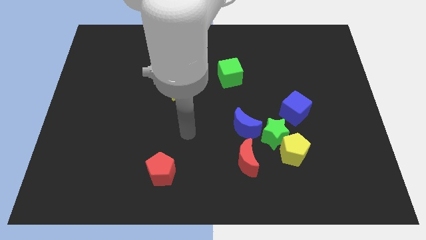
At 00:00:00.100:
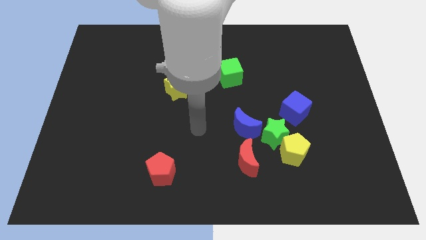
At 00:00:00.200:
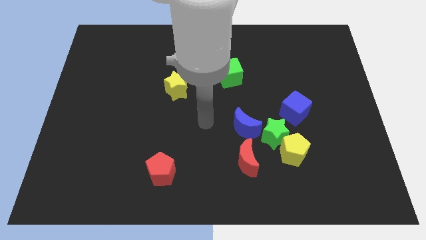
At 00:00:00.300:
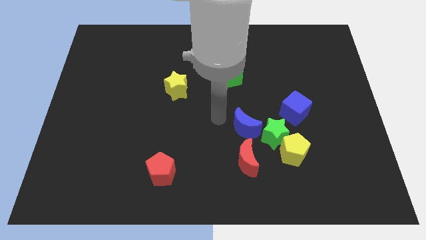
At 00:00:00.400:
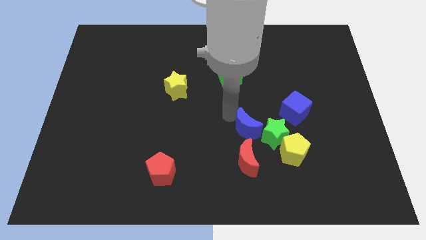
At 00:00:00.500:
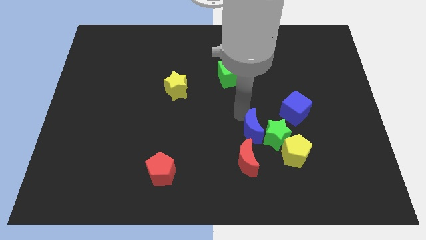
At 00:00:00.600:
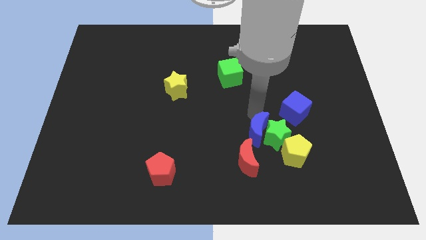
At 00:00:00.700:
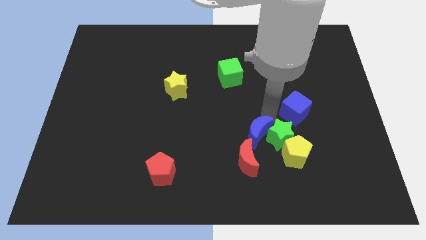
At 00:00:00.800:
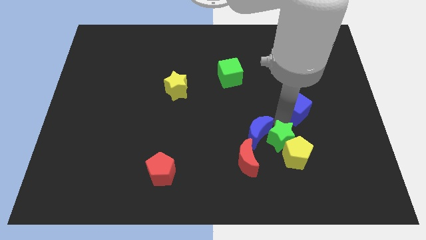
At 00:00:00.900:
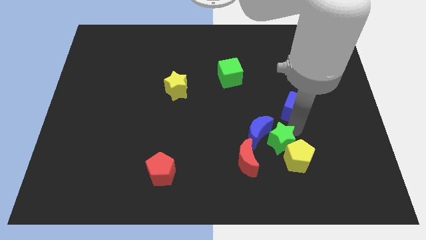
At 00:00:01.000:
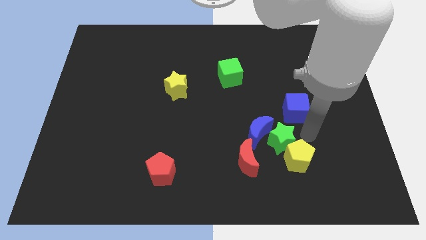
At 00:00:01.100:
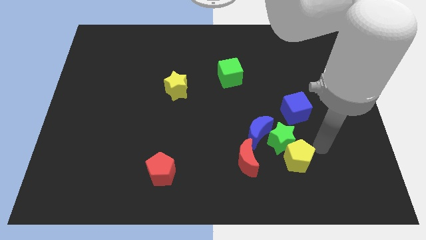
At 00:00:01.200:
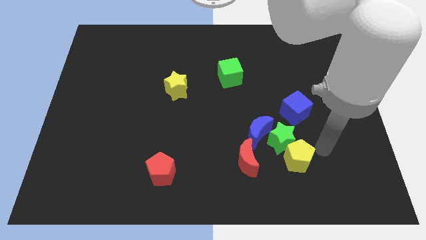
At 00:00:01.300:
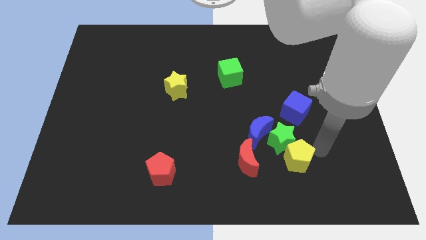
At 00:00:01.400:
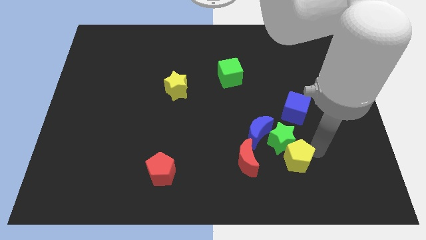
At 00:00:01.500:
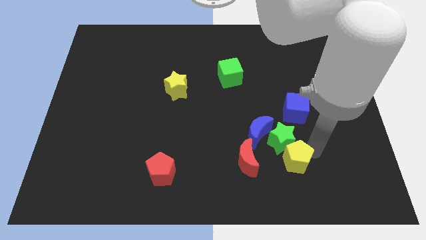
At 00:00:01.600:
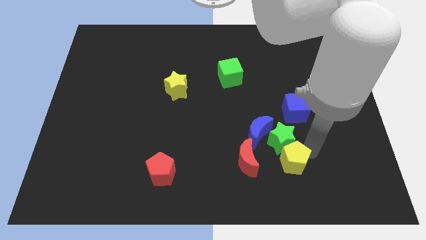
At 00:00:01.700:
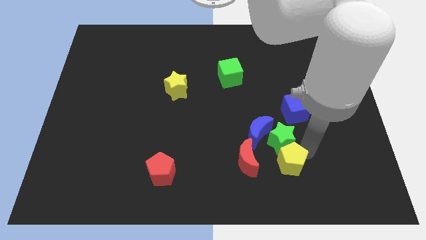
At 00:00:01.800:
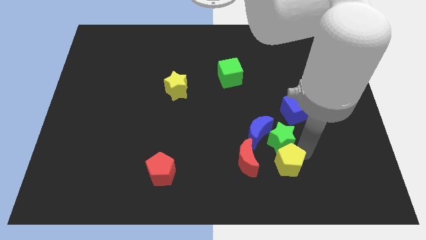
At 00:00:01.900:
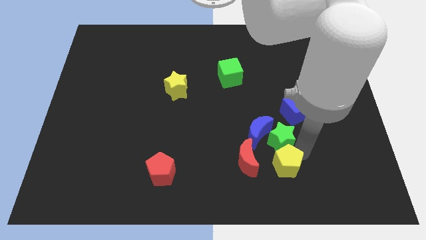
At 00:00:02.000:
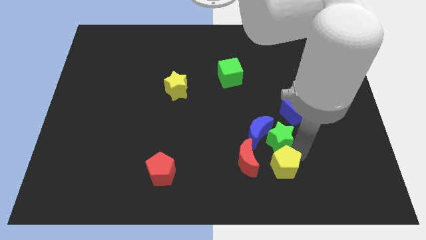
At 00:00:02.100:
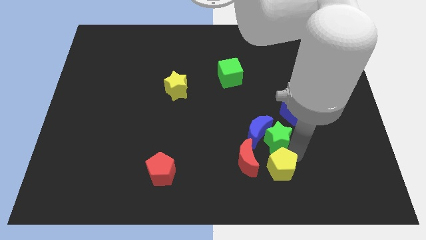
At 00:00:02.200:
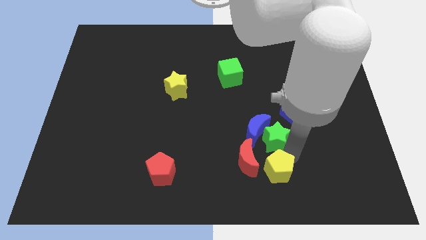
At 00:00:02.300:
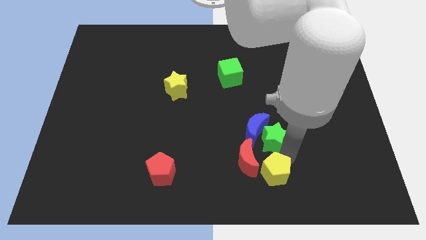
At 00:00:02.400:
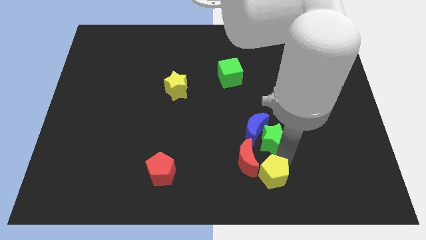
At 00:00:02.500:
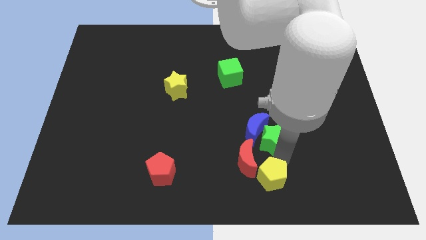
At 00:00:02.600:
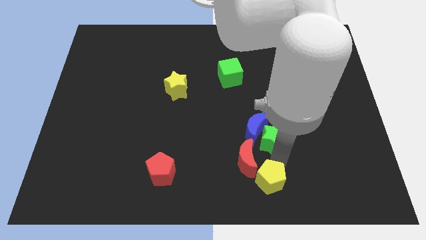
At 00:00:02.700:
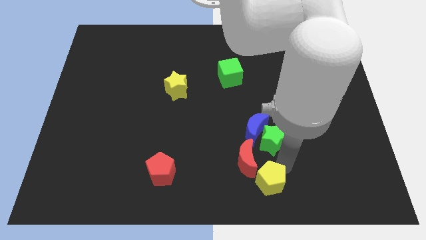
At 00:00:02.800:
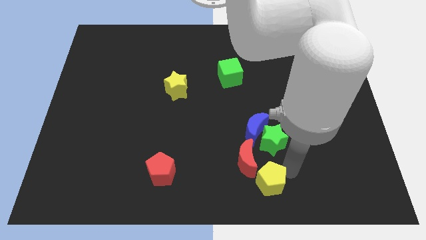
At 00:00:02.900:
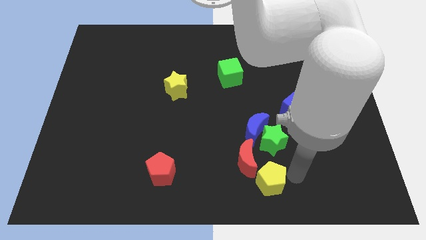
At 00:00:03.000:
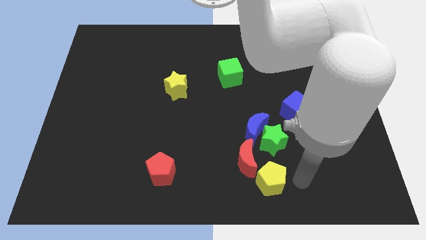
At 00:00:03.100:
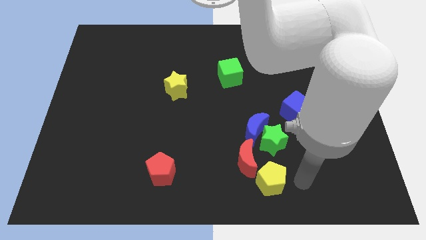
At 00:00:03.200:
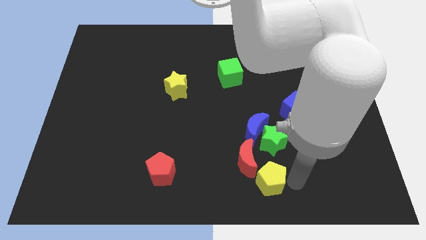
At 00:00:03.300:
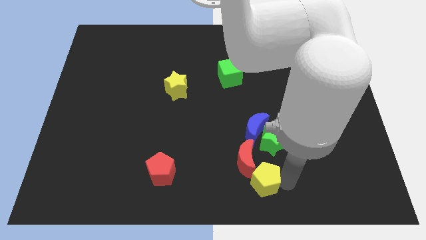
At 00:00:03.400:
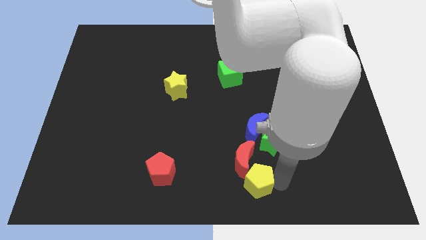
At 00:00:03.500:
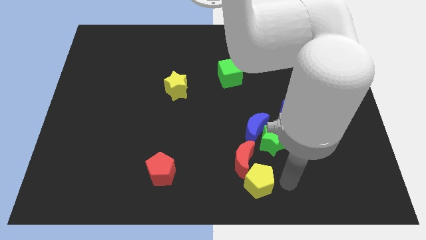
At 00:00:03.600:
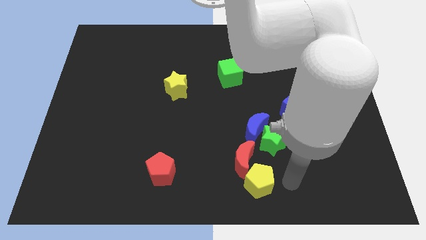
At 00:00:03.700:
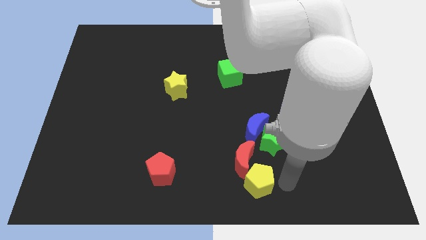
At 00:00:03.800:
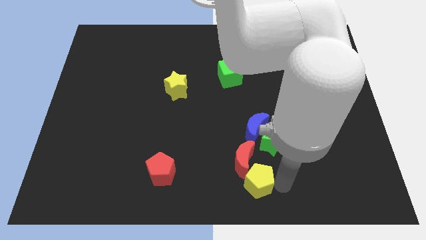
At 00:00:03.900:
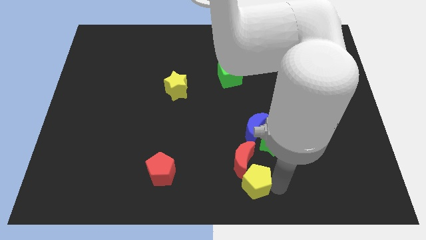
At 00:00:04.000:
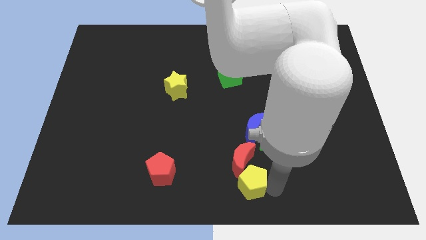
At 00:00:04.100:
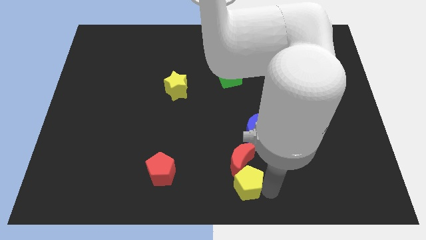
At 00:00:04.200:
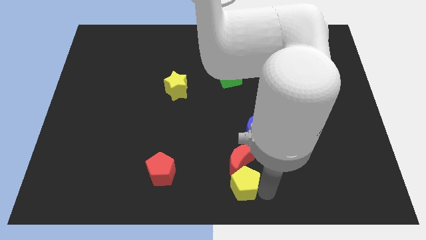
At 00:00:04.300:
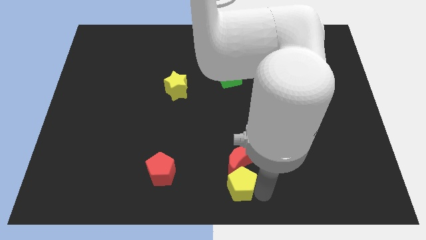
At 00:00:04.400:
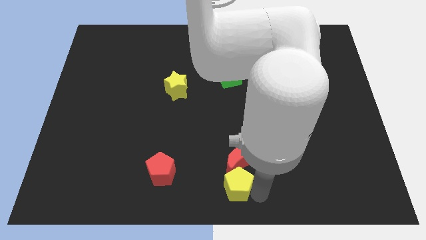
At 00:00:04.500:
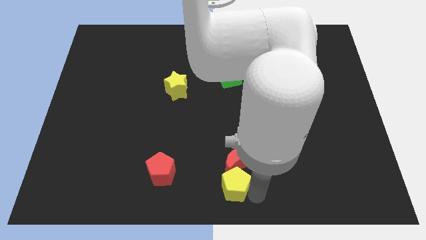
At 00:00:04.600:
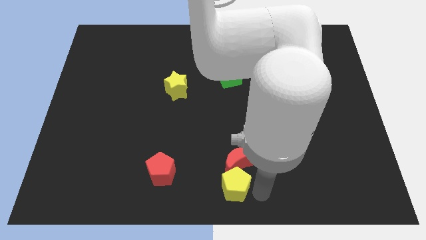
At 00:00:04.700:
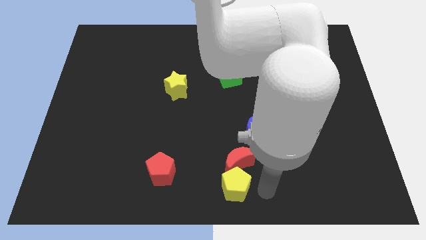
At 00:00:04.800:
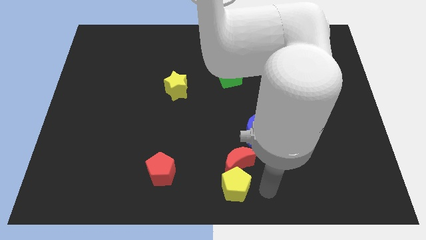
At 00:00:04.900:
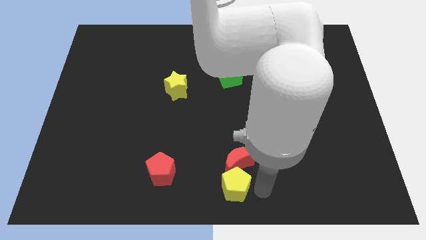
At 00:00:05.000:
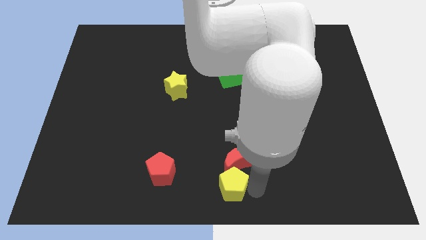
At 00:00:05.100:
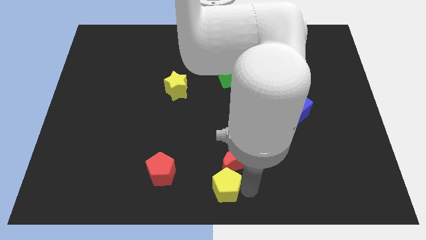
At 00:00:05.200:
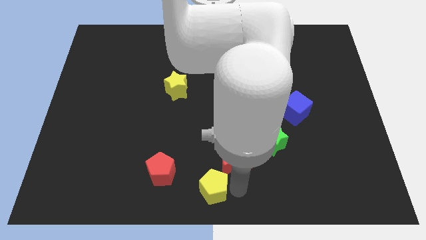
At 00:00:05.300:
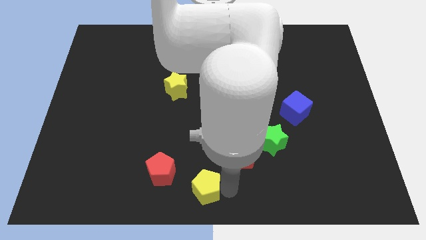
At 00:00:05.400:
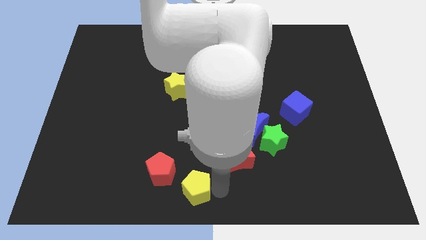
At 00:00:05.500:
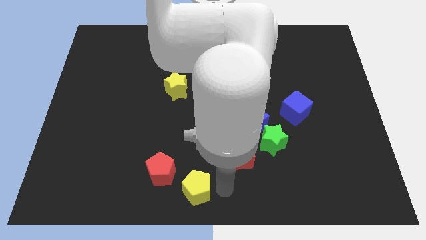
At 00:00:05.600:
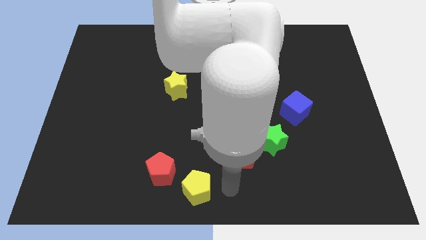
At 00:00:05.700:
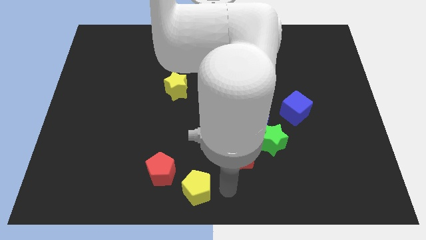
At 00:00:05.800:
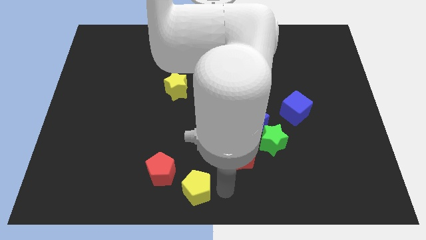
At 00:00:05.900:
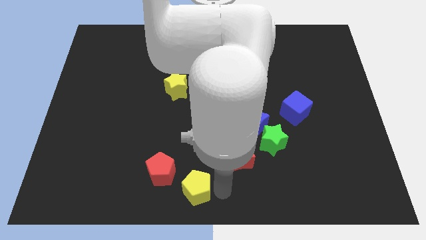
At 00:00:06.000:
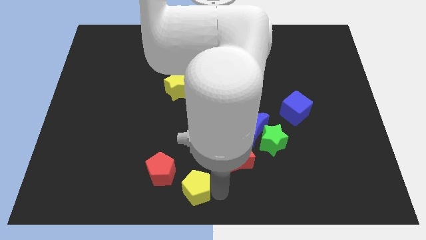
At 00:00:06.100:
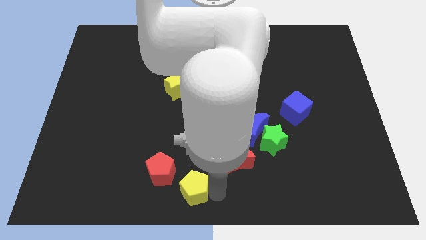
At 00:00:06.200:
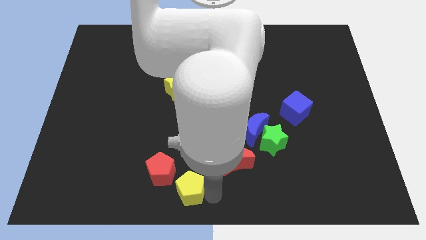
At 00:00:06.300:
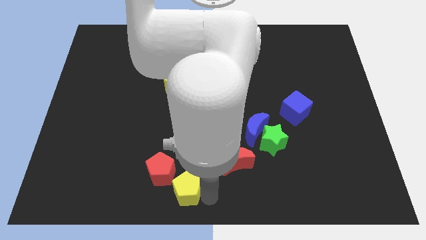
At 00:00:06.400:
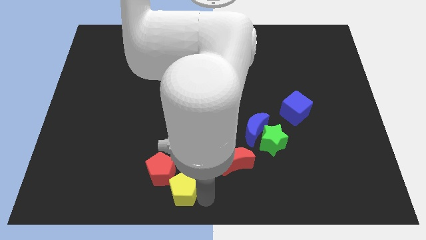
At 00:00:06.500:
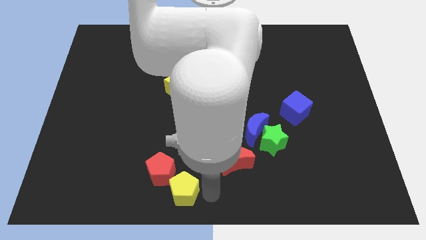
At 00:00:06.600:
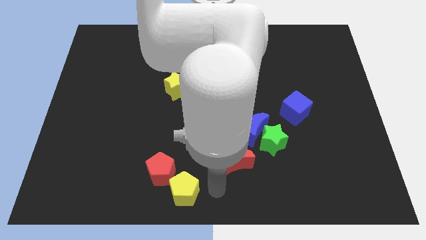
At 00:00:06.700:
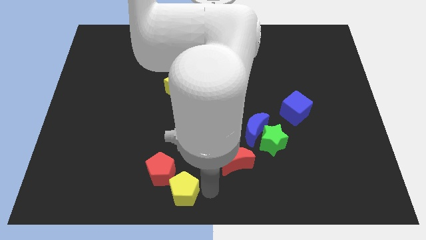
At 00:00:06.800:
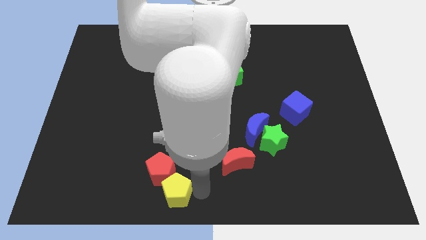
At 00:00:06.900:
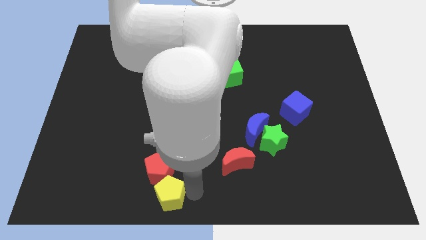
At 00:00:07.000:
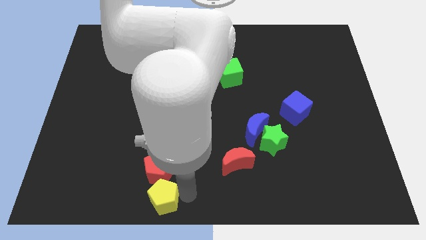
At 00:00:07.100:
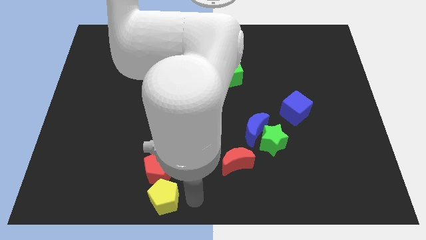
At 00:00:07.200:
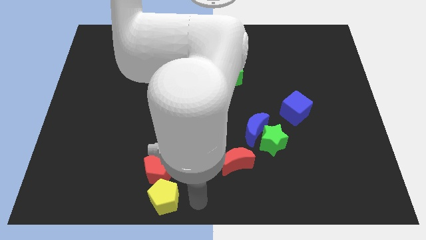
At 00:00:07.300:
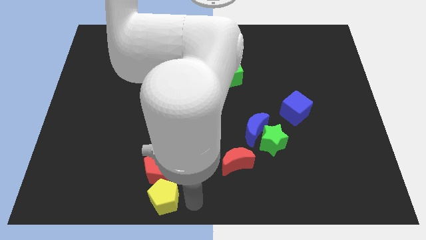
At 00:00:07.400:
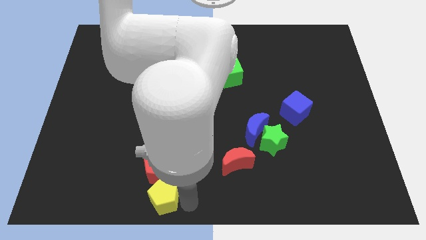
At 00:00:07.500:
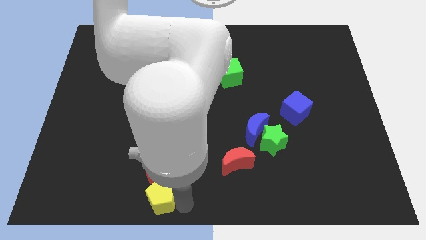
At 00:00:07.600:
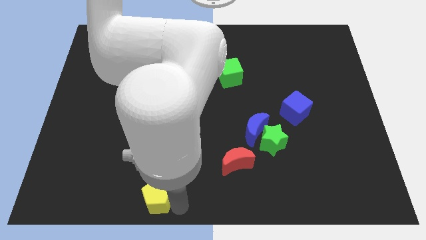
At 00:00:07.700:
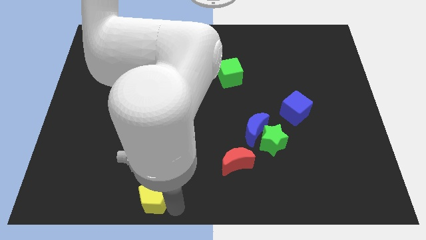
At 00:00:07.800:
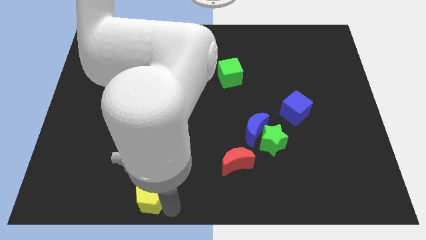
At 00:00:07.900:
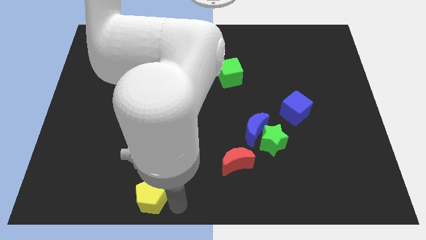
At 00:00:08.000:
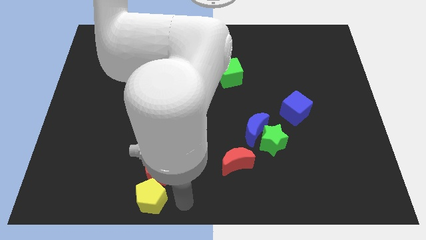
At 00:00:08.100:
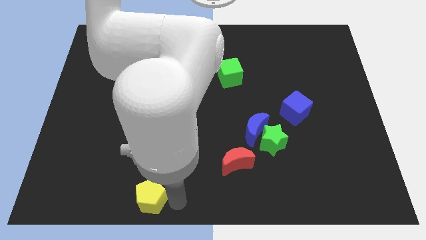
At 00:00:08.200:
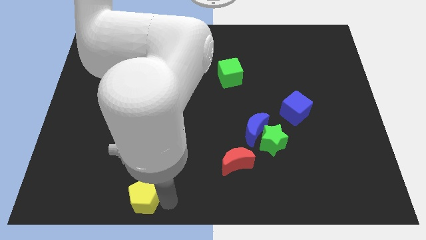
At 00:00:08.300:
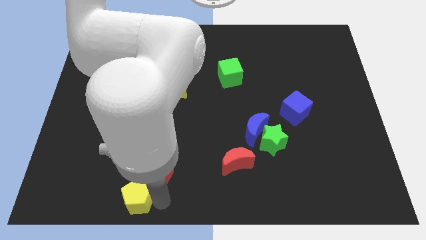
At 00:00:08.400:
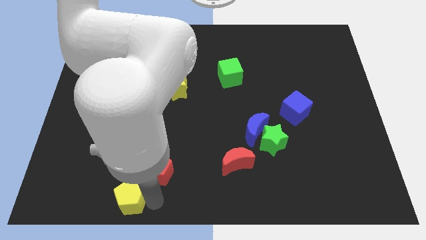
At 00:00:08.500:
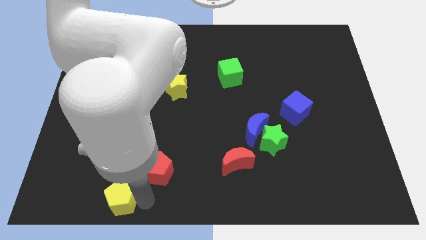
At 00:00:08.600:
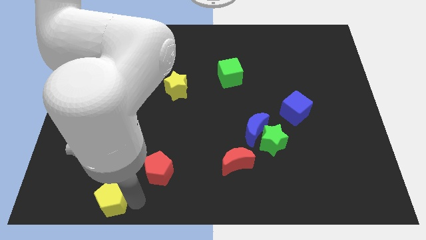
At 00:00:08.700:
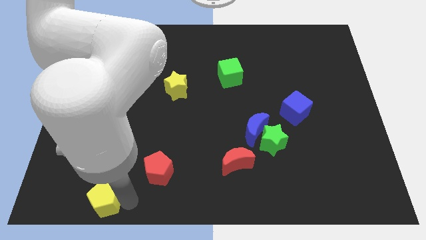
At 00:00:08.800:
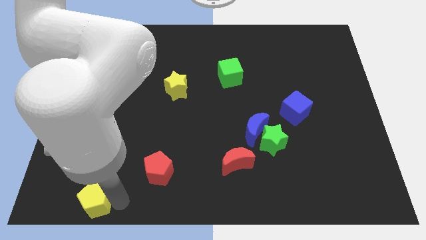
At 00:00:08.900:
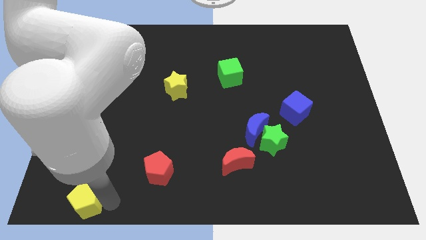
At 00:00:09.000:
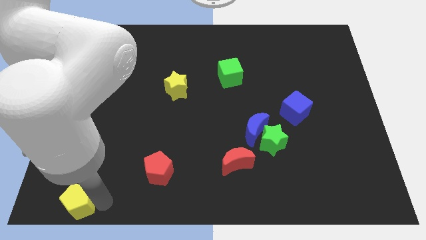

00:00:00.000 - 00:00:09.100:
push the yellow pentagon to the bottom left
